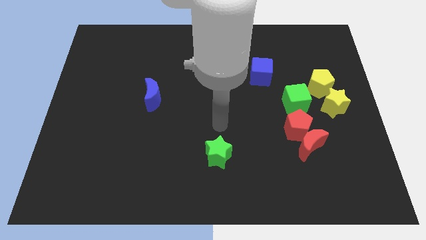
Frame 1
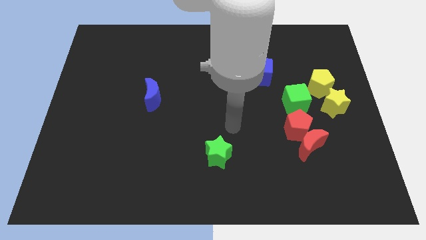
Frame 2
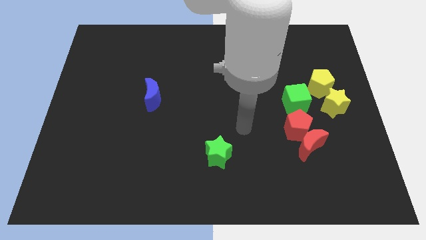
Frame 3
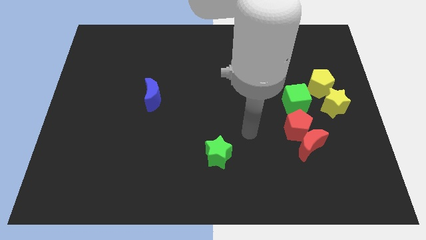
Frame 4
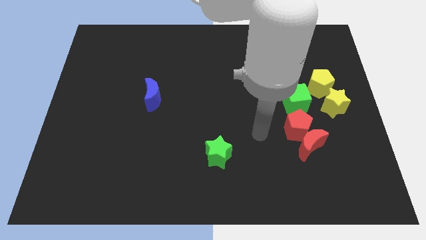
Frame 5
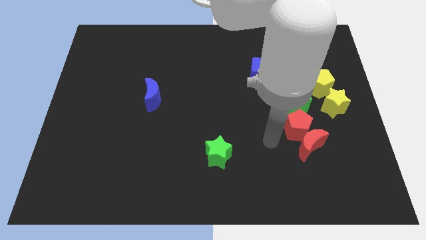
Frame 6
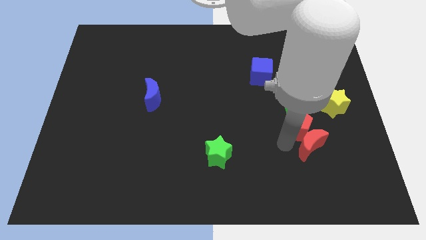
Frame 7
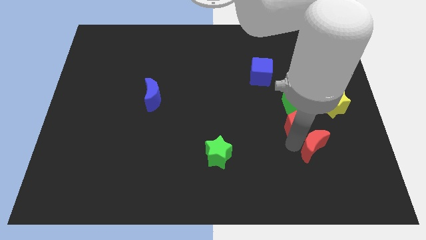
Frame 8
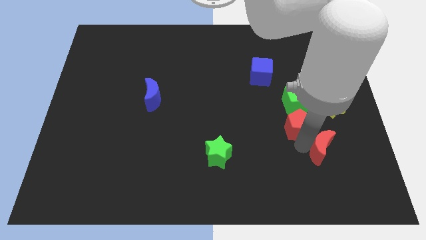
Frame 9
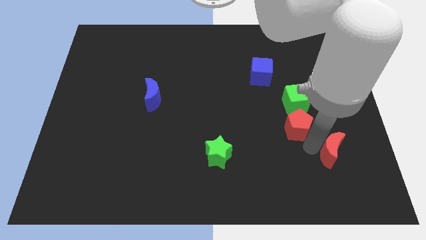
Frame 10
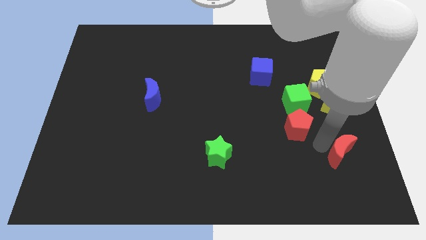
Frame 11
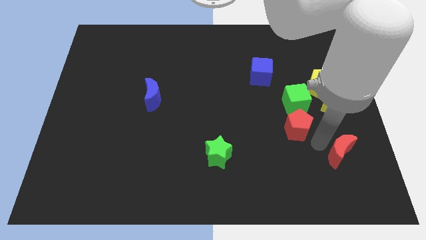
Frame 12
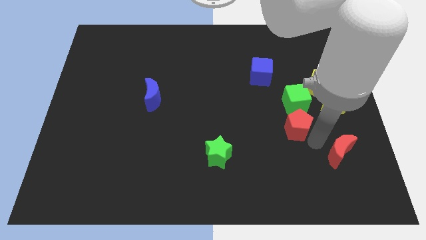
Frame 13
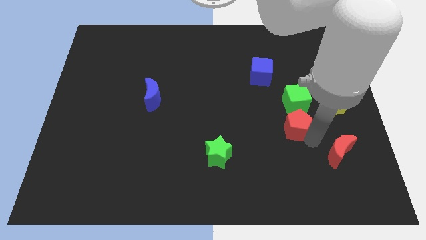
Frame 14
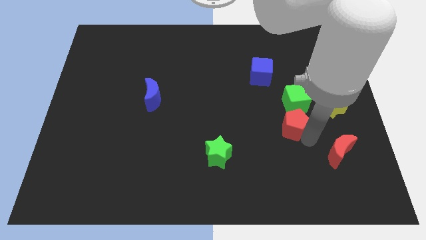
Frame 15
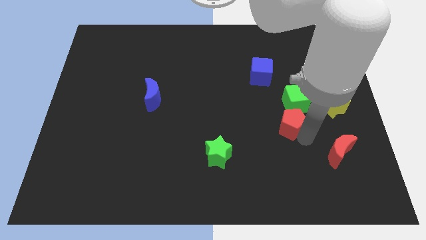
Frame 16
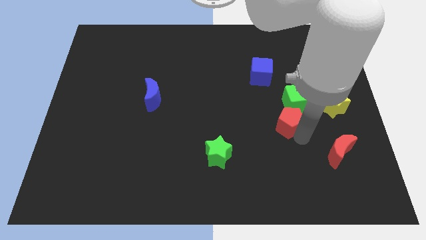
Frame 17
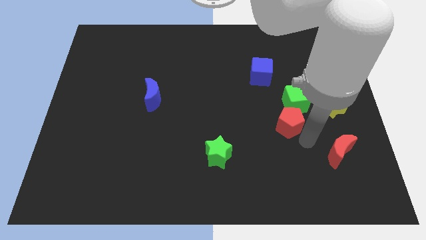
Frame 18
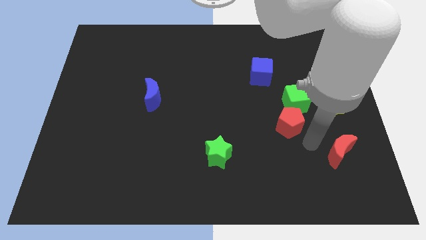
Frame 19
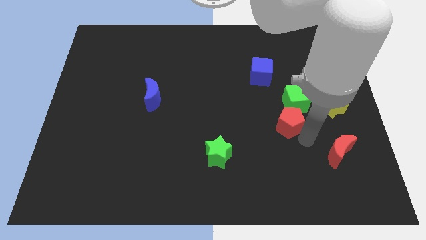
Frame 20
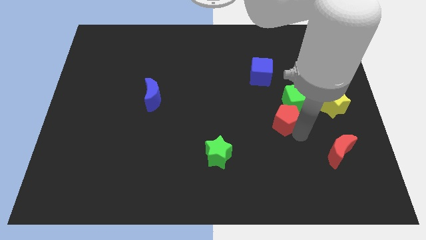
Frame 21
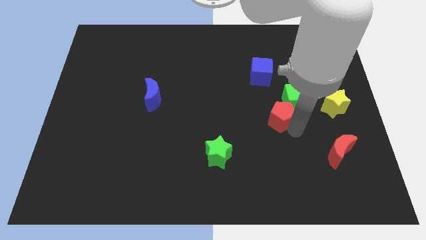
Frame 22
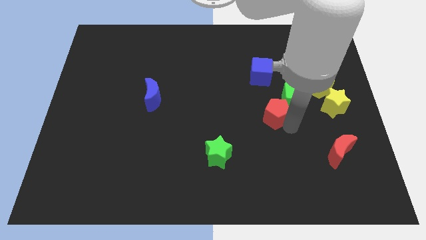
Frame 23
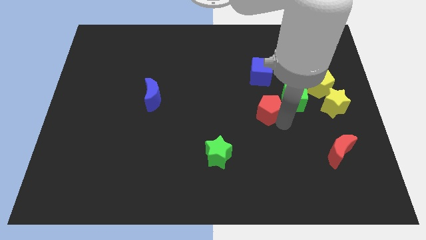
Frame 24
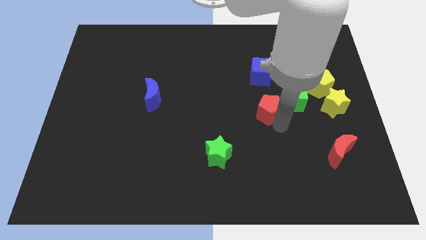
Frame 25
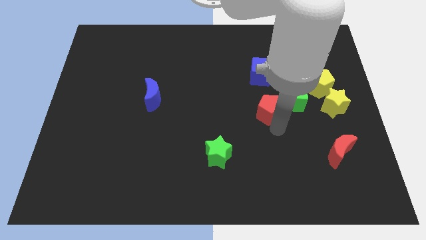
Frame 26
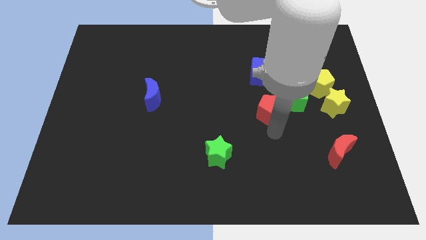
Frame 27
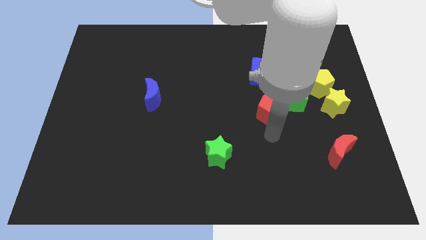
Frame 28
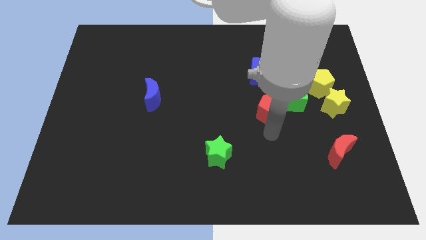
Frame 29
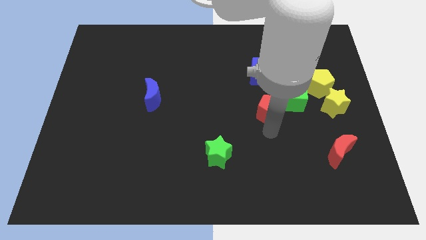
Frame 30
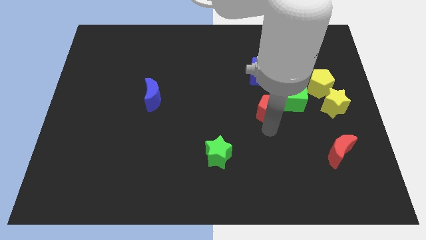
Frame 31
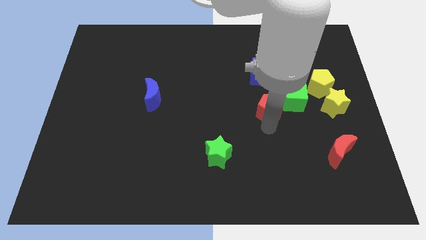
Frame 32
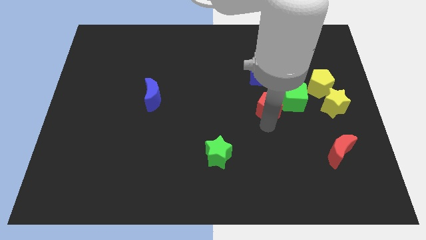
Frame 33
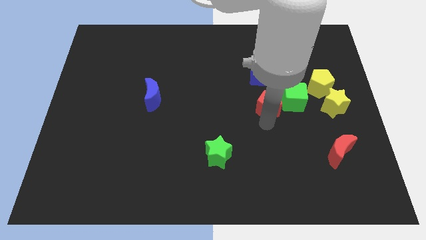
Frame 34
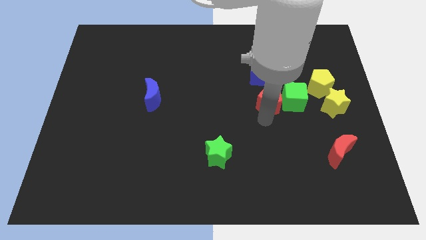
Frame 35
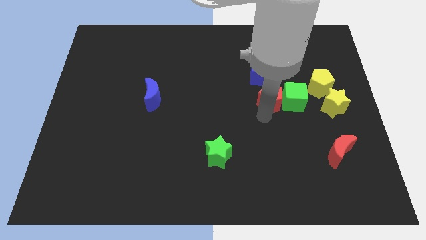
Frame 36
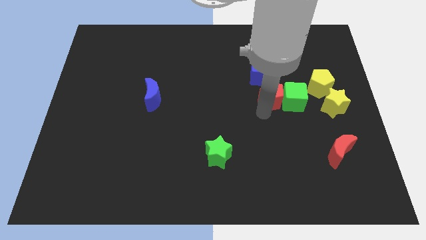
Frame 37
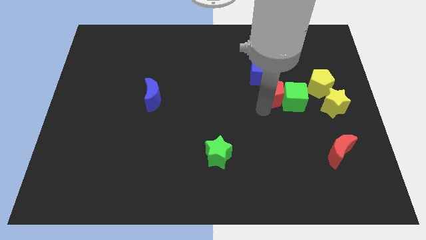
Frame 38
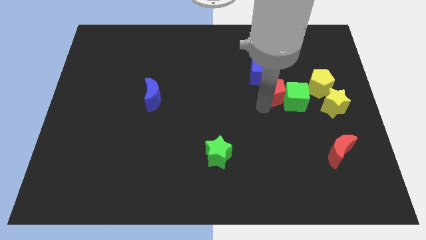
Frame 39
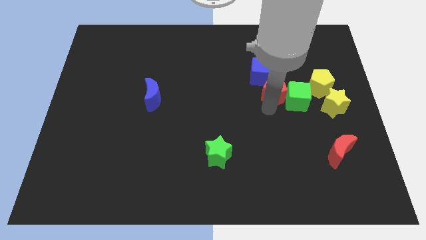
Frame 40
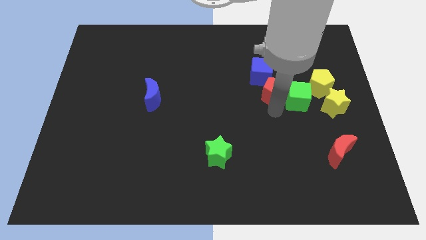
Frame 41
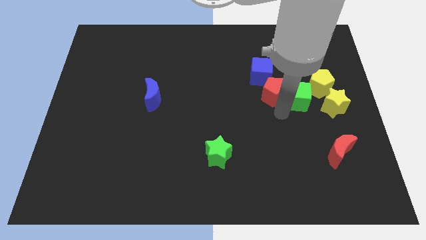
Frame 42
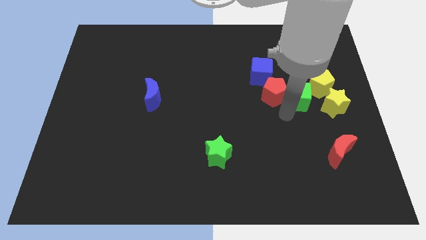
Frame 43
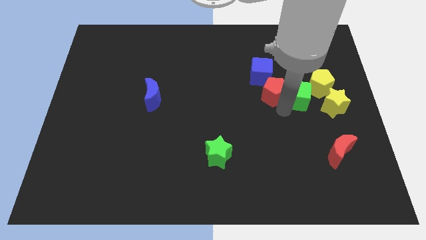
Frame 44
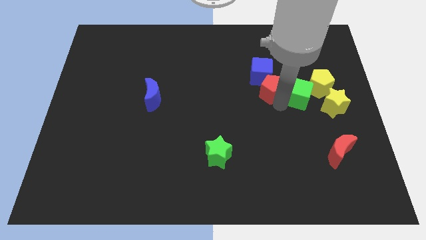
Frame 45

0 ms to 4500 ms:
push the red pentagon next to the blue cube

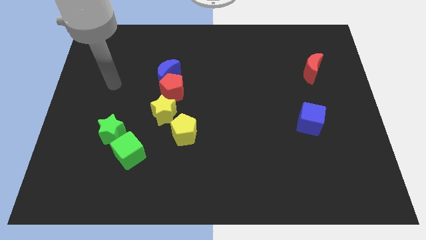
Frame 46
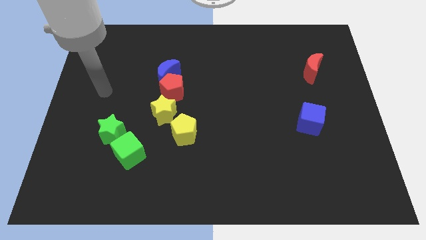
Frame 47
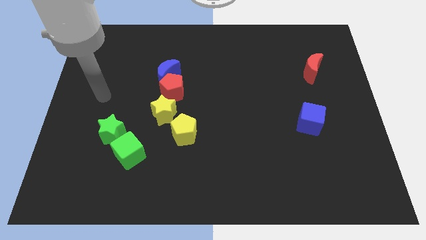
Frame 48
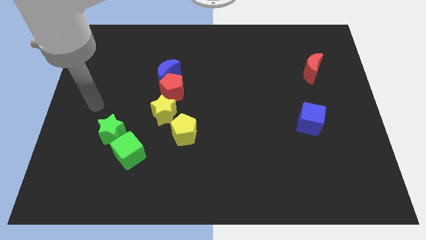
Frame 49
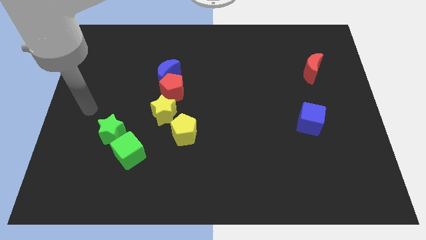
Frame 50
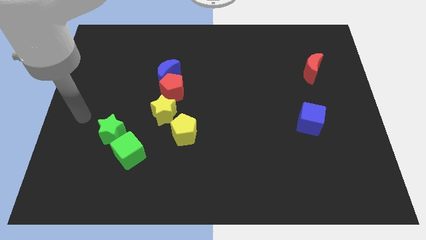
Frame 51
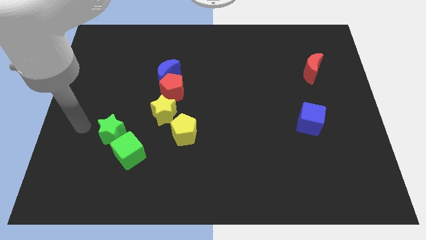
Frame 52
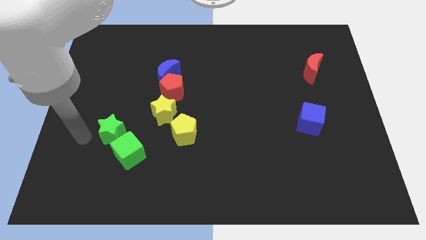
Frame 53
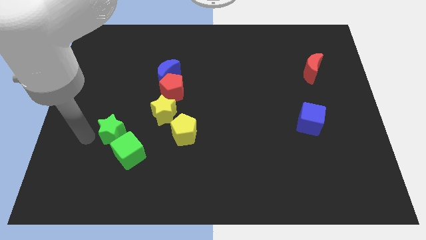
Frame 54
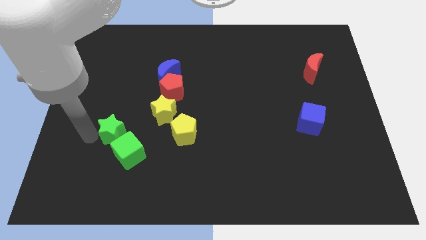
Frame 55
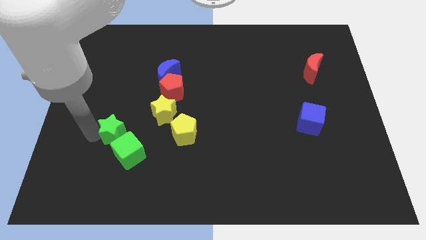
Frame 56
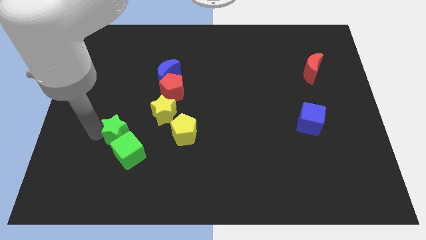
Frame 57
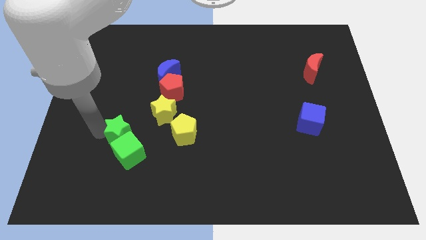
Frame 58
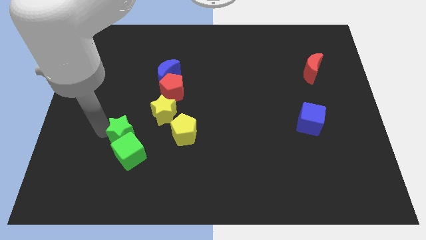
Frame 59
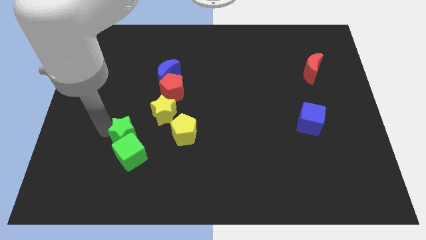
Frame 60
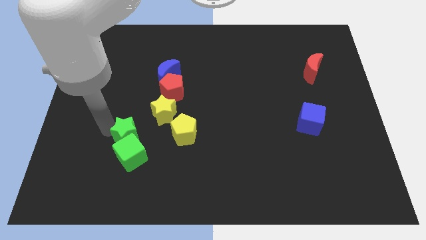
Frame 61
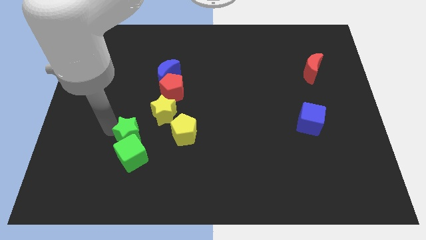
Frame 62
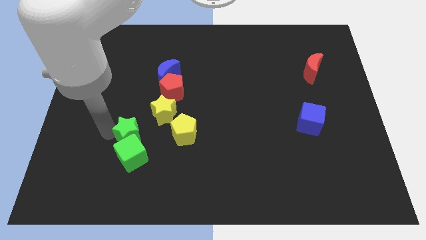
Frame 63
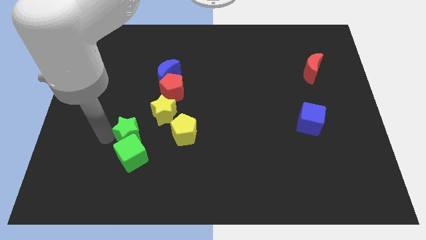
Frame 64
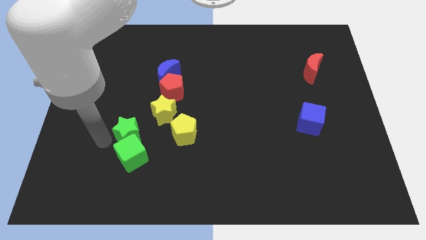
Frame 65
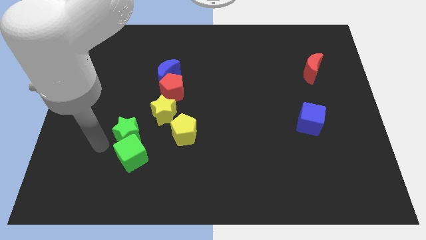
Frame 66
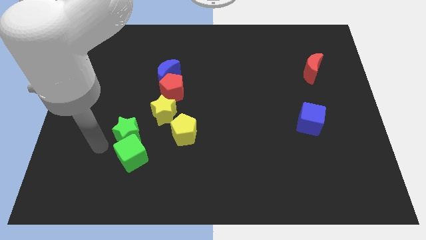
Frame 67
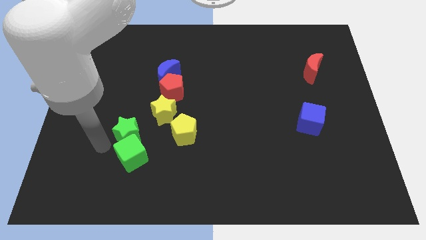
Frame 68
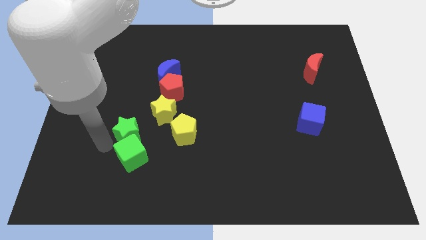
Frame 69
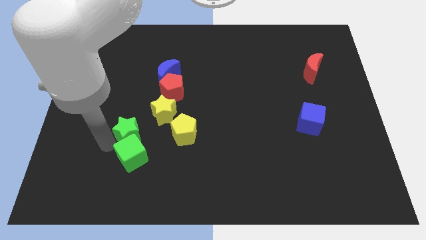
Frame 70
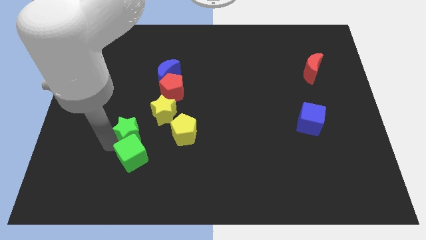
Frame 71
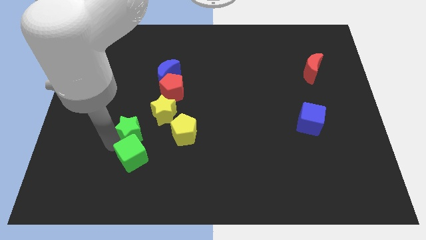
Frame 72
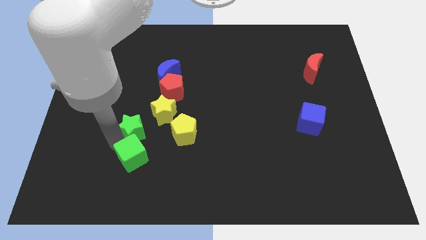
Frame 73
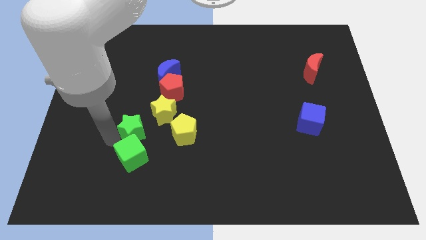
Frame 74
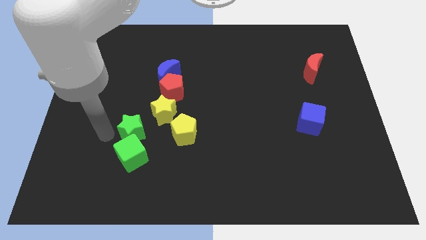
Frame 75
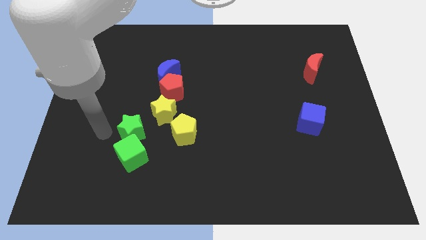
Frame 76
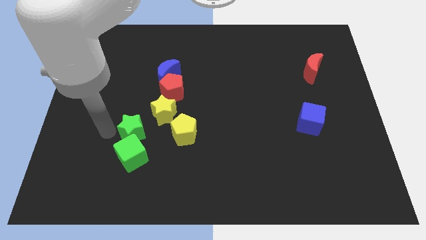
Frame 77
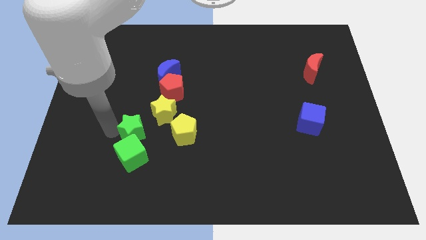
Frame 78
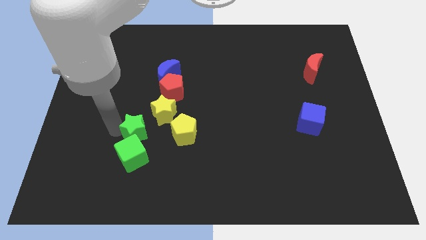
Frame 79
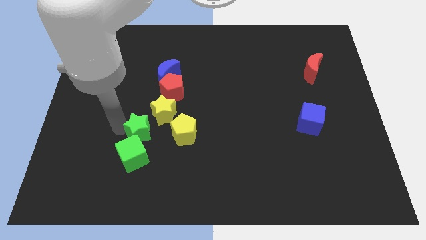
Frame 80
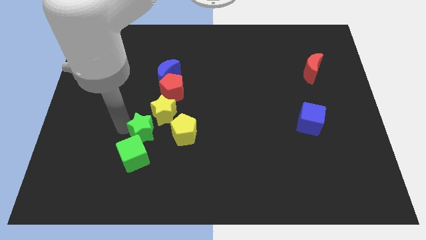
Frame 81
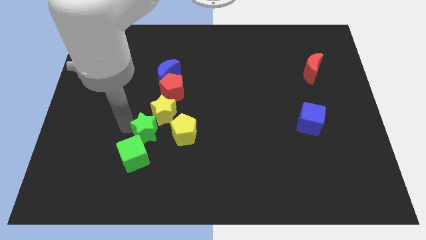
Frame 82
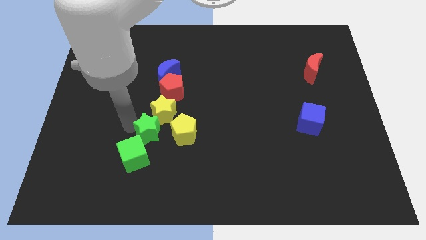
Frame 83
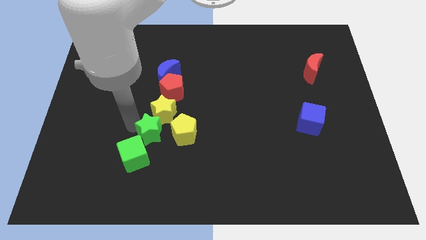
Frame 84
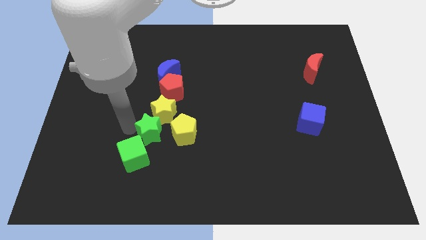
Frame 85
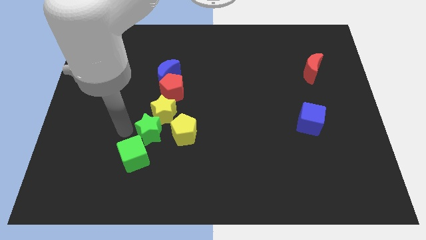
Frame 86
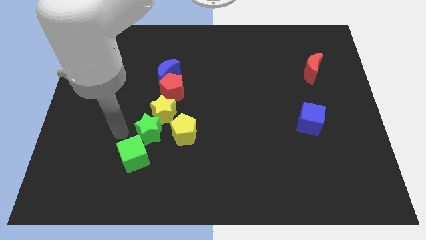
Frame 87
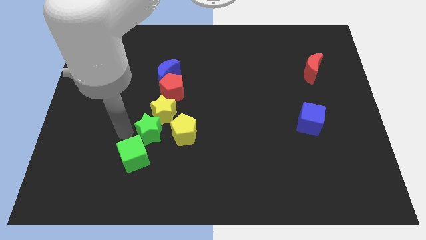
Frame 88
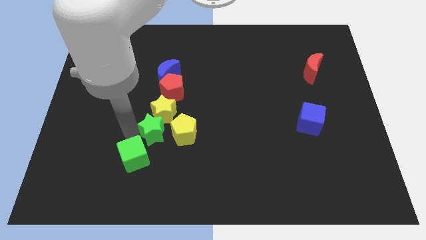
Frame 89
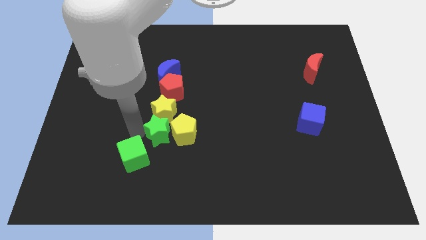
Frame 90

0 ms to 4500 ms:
move the green star next to the yellow pentagon
